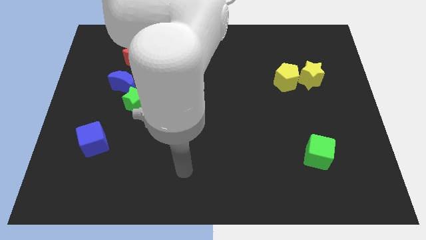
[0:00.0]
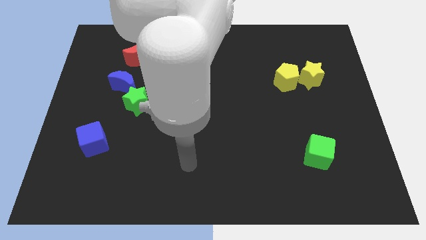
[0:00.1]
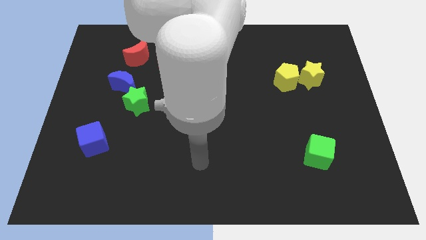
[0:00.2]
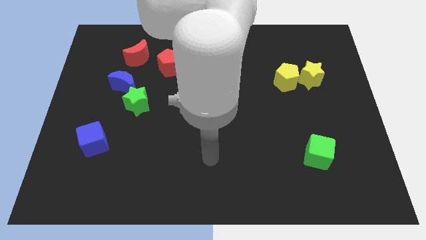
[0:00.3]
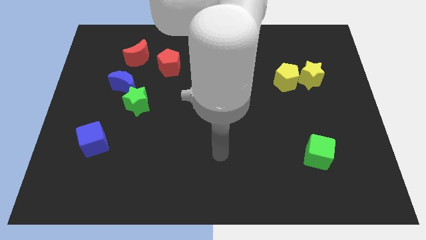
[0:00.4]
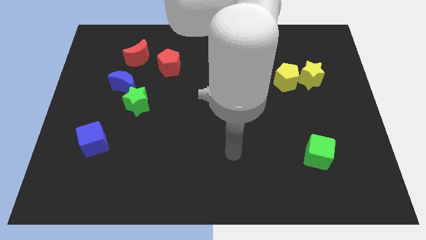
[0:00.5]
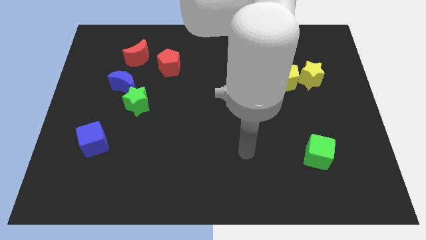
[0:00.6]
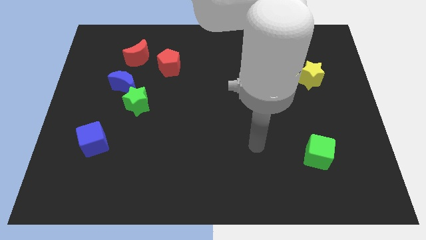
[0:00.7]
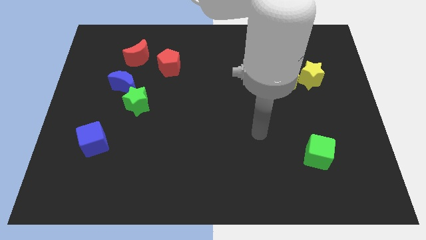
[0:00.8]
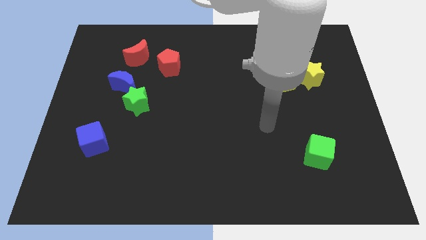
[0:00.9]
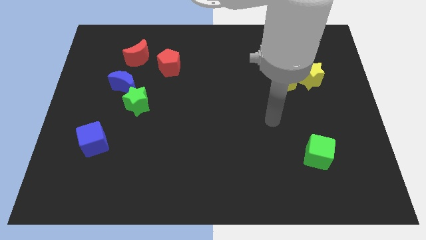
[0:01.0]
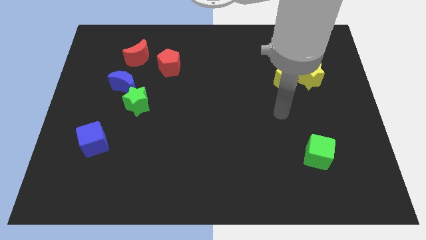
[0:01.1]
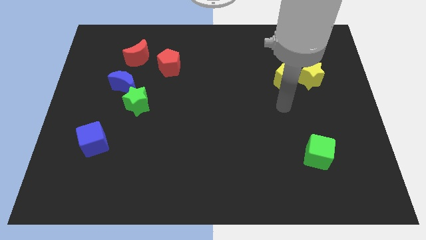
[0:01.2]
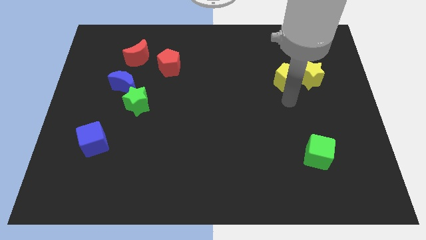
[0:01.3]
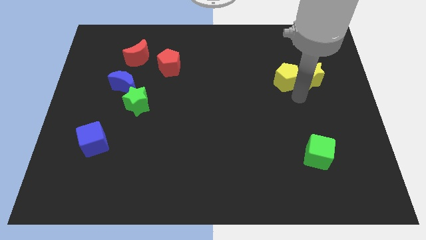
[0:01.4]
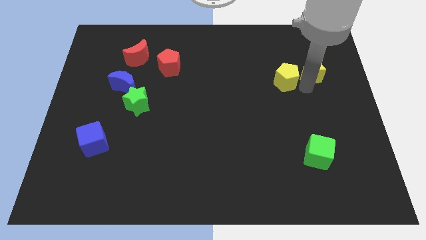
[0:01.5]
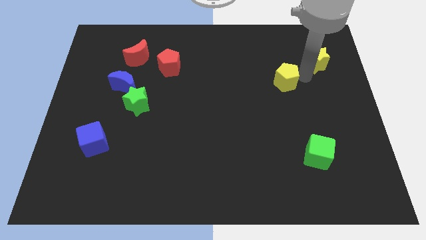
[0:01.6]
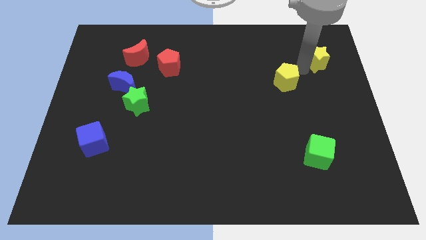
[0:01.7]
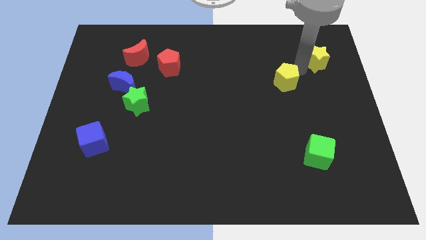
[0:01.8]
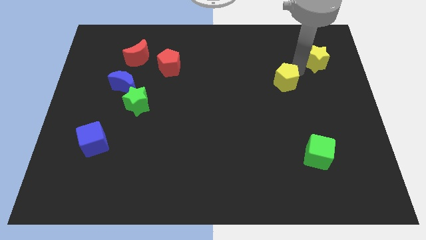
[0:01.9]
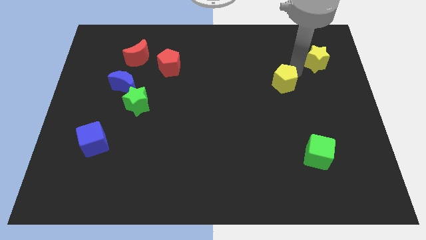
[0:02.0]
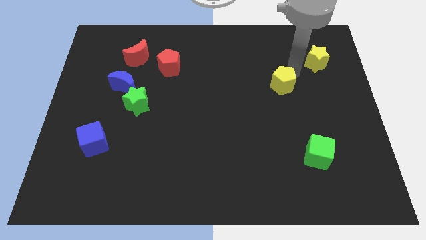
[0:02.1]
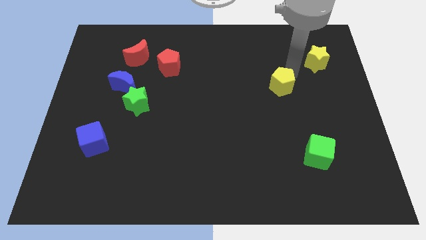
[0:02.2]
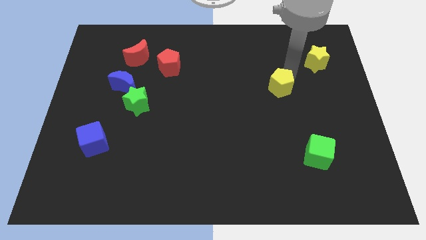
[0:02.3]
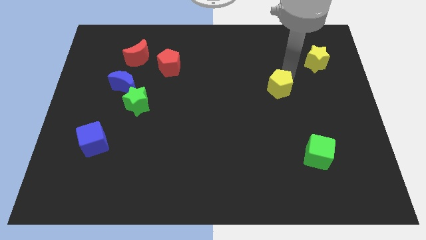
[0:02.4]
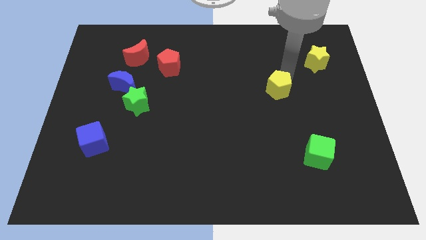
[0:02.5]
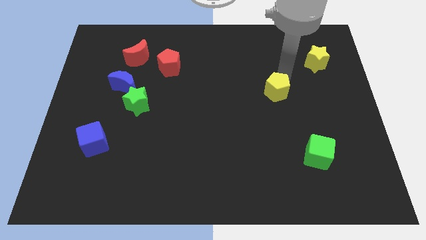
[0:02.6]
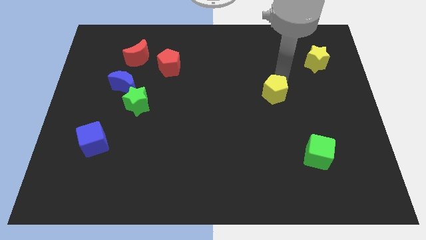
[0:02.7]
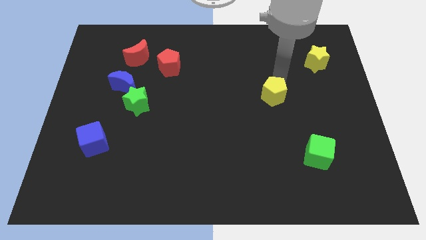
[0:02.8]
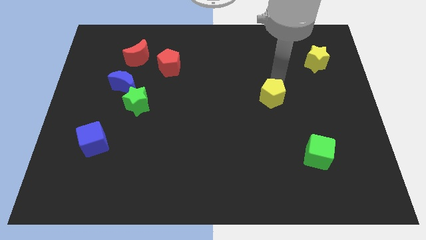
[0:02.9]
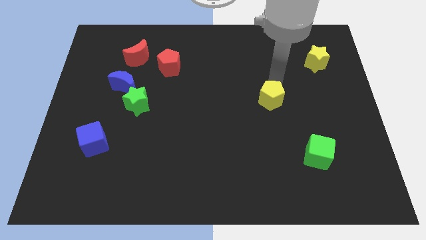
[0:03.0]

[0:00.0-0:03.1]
slightly slide the yellow pentagon down and then left

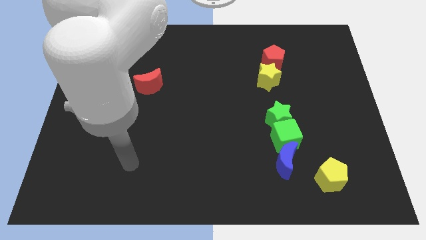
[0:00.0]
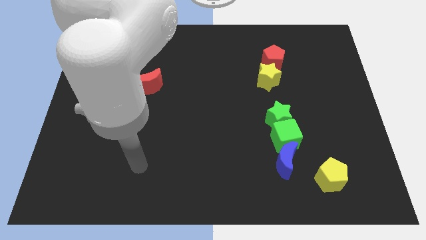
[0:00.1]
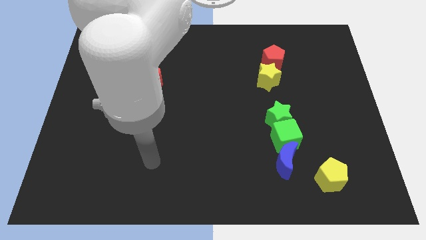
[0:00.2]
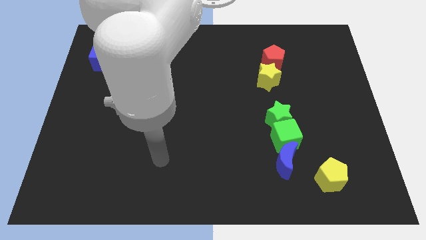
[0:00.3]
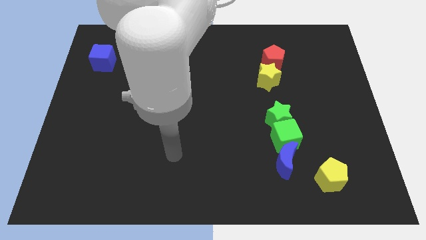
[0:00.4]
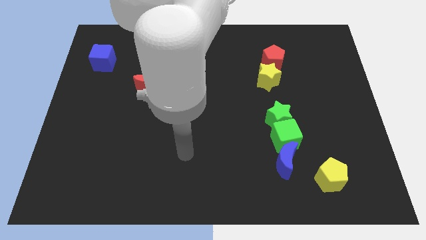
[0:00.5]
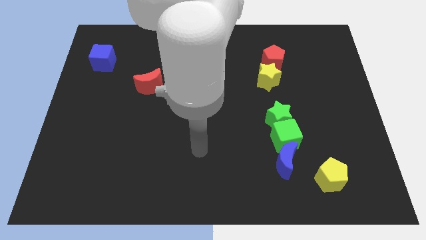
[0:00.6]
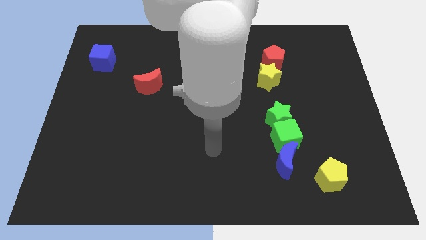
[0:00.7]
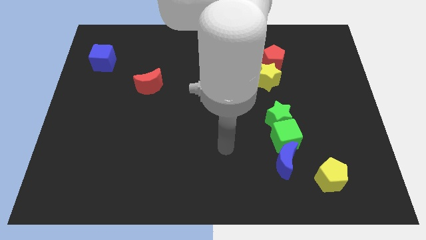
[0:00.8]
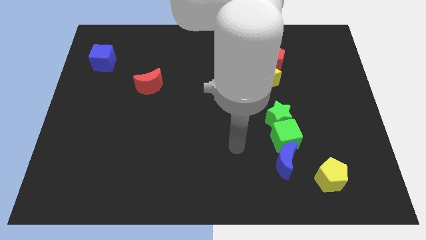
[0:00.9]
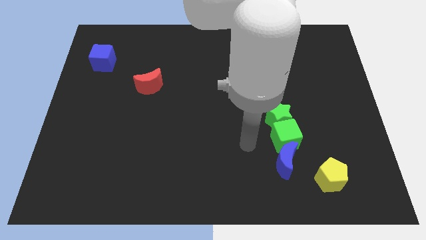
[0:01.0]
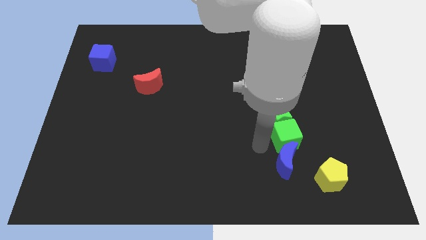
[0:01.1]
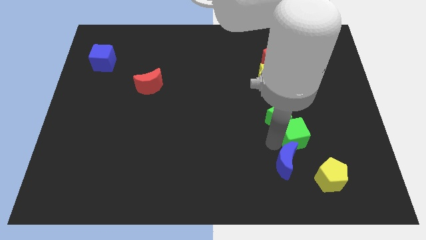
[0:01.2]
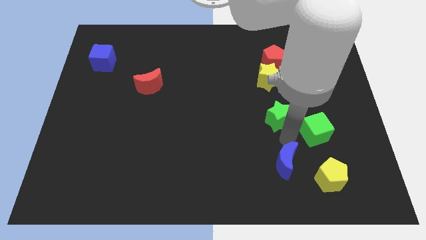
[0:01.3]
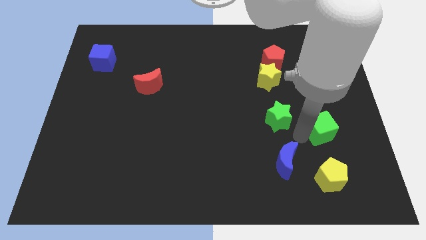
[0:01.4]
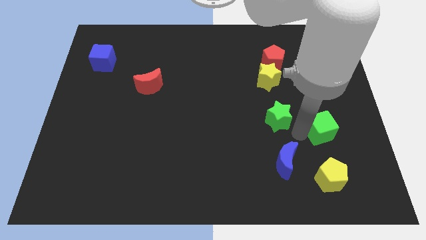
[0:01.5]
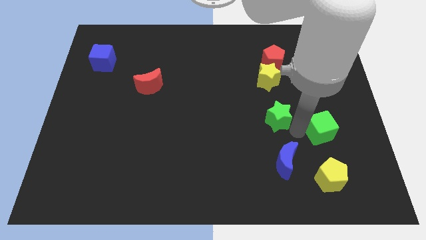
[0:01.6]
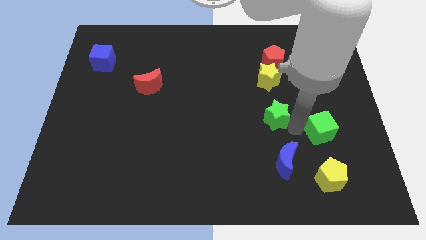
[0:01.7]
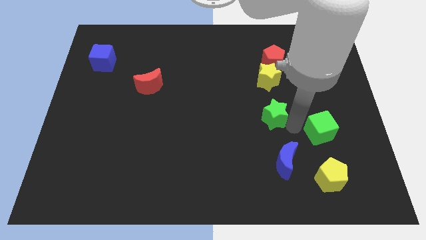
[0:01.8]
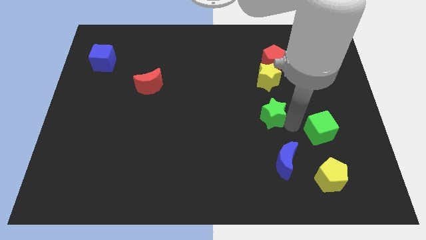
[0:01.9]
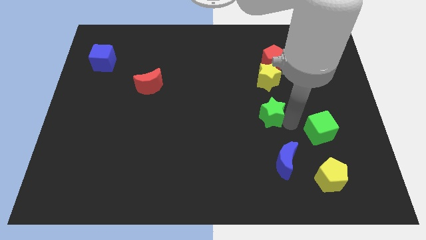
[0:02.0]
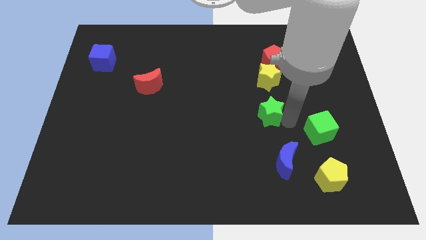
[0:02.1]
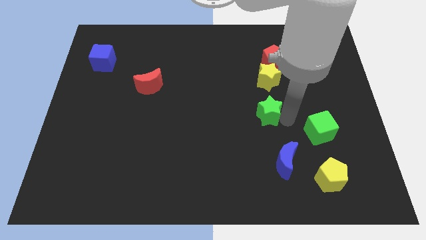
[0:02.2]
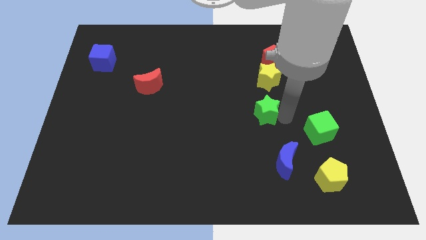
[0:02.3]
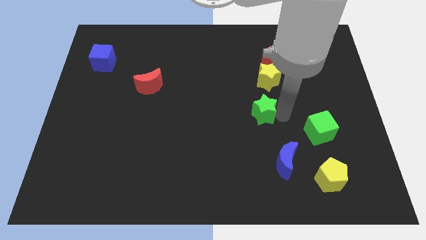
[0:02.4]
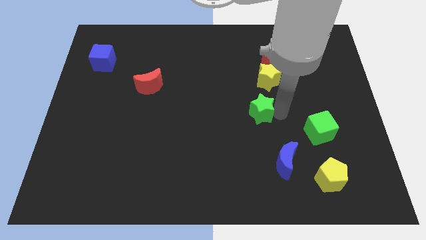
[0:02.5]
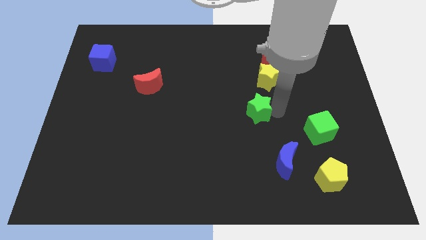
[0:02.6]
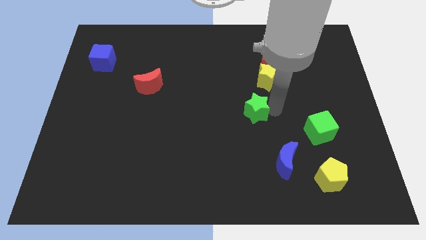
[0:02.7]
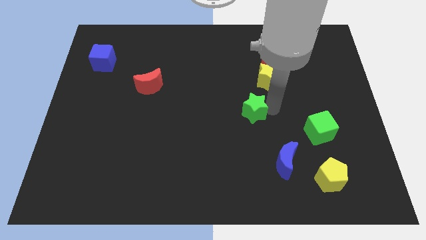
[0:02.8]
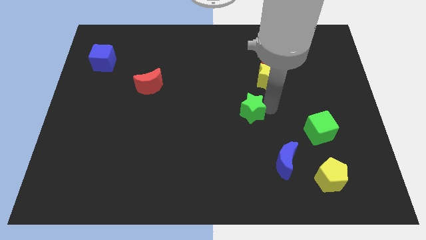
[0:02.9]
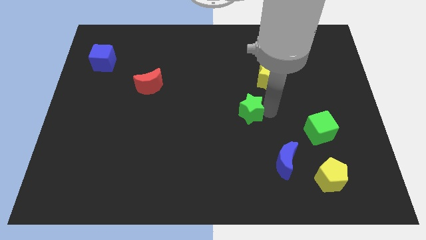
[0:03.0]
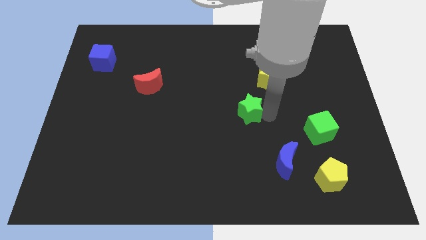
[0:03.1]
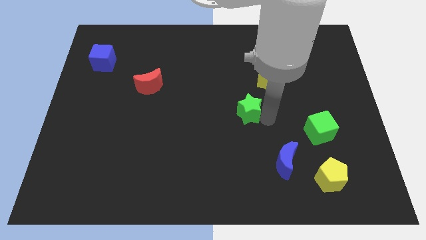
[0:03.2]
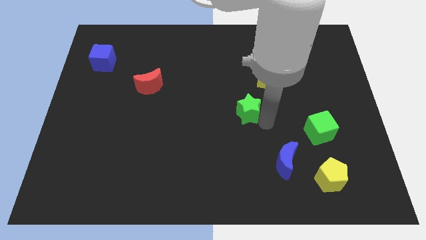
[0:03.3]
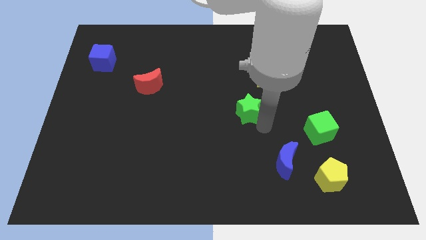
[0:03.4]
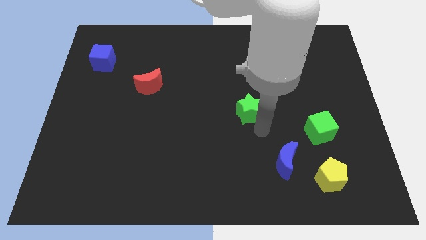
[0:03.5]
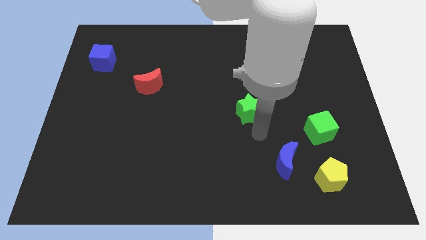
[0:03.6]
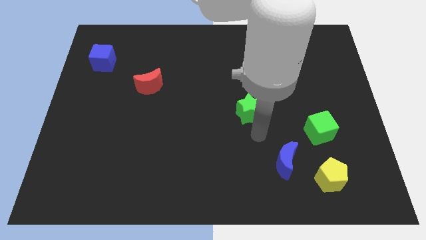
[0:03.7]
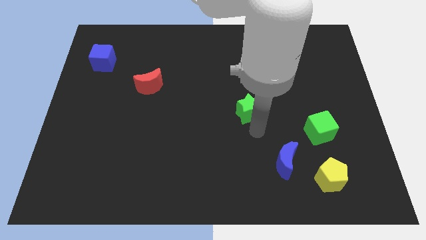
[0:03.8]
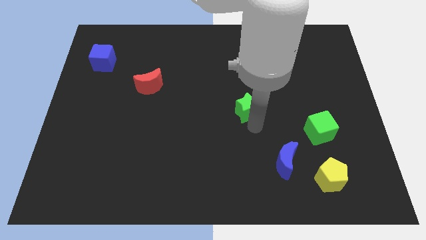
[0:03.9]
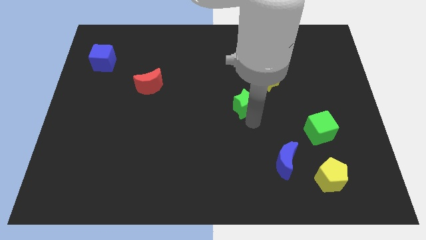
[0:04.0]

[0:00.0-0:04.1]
move the green star somewhat upwards and then left

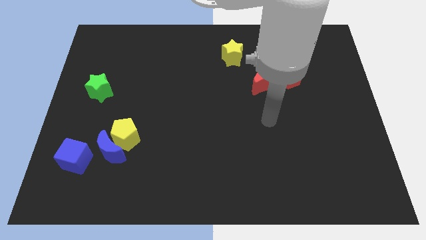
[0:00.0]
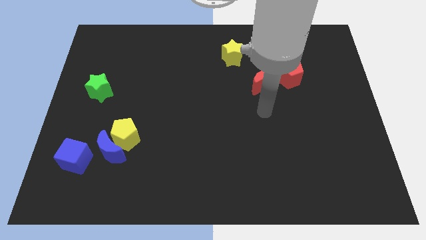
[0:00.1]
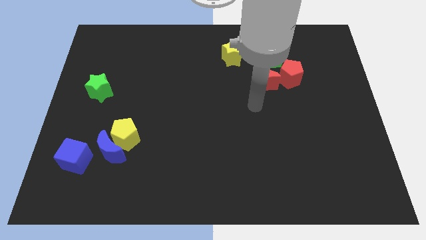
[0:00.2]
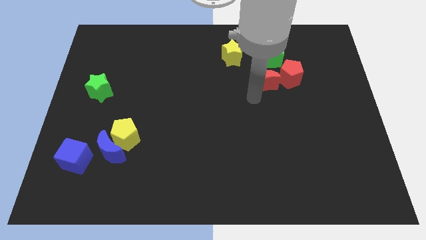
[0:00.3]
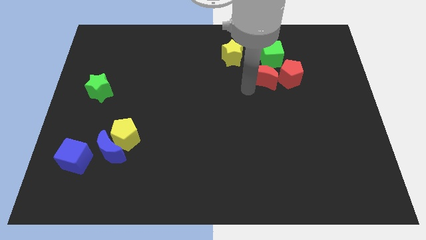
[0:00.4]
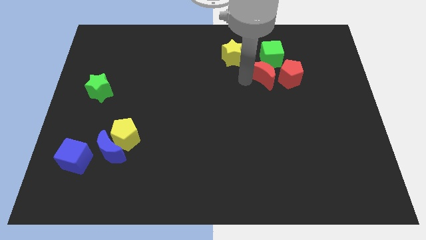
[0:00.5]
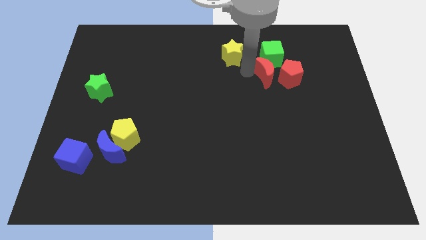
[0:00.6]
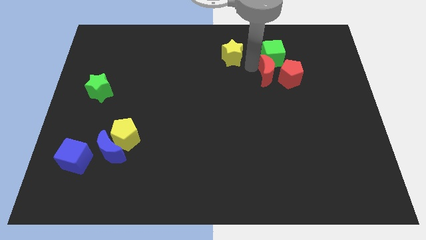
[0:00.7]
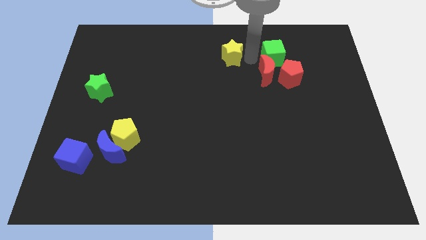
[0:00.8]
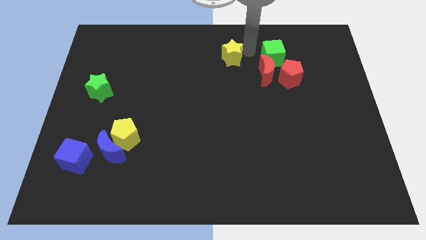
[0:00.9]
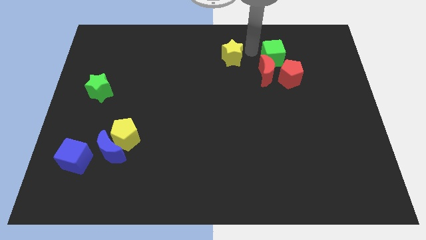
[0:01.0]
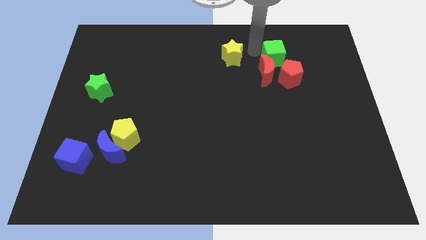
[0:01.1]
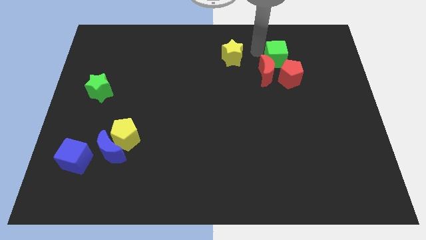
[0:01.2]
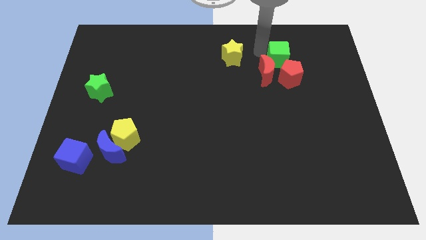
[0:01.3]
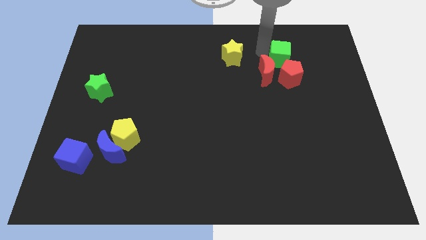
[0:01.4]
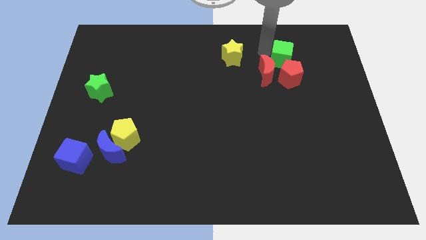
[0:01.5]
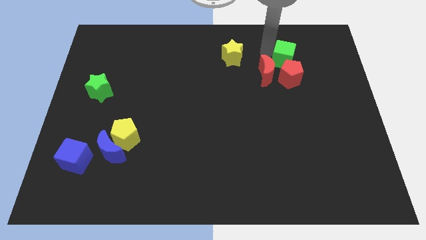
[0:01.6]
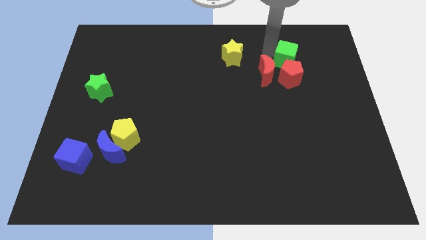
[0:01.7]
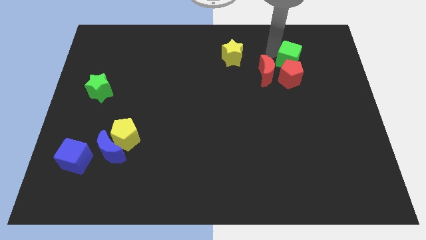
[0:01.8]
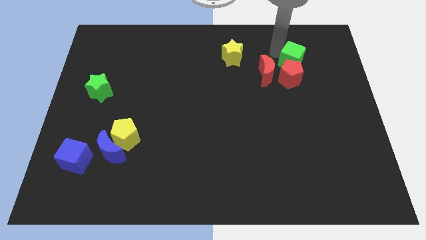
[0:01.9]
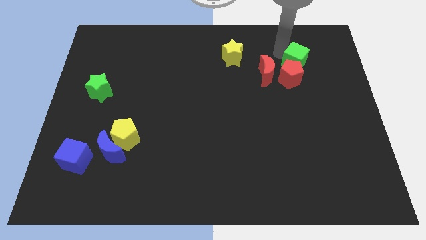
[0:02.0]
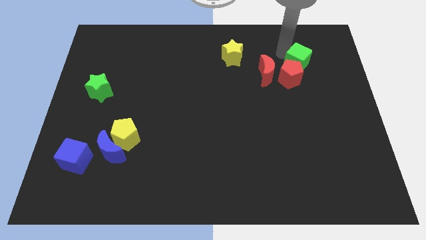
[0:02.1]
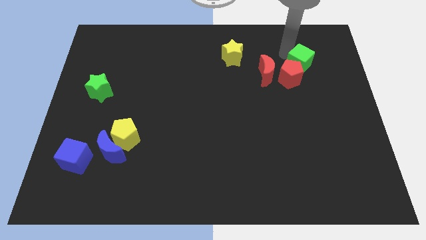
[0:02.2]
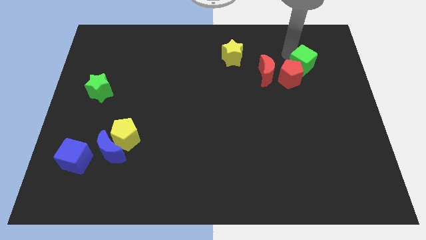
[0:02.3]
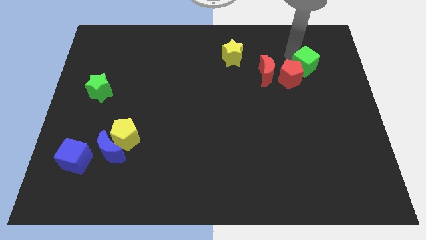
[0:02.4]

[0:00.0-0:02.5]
slightly push the green cube down and to the right
